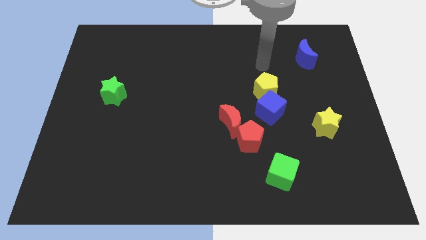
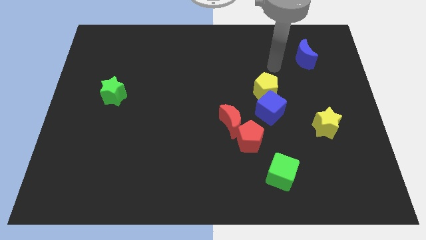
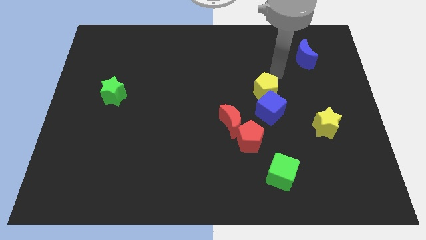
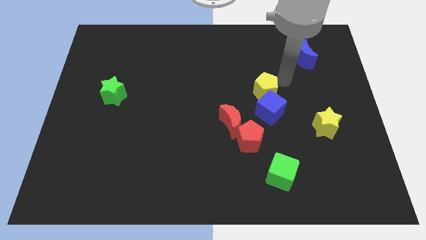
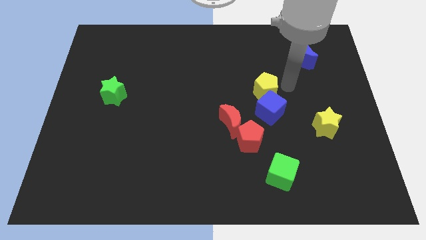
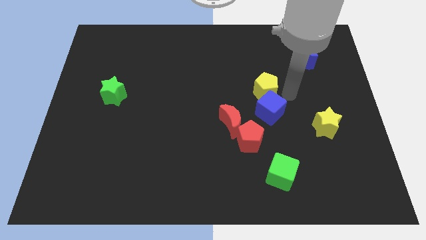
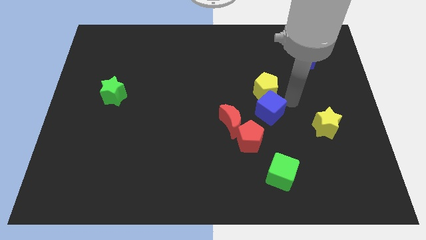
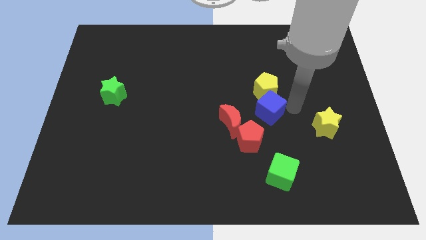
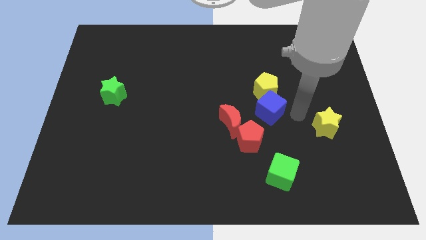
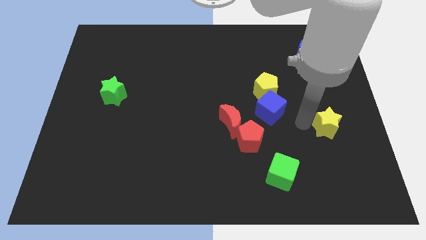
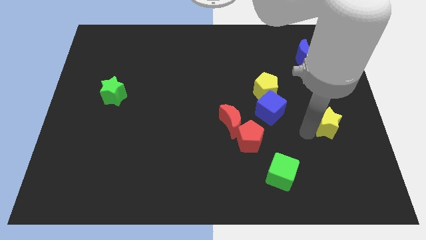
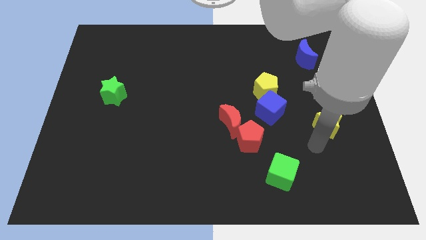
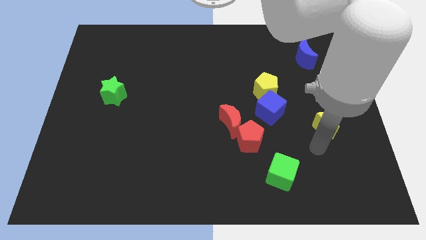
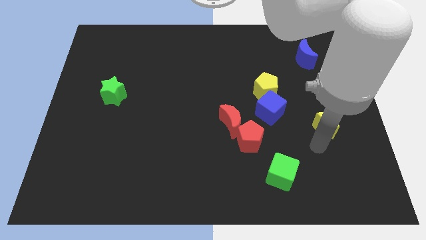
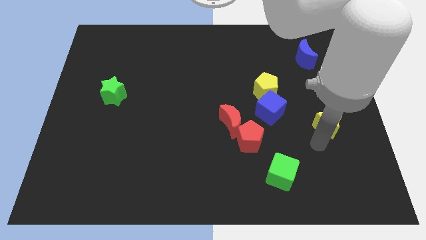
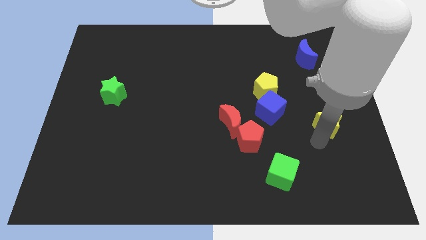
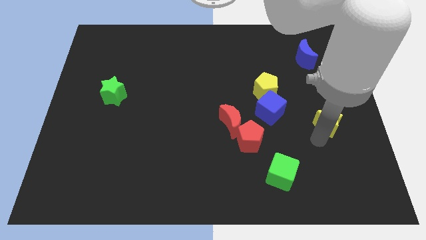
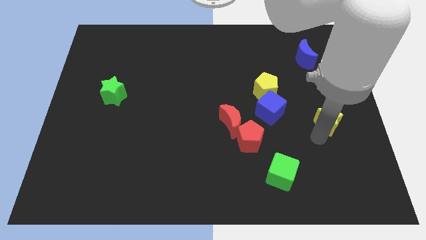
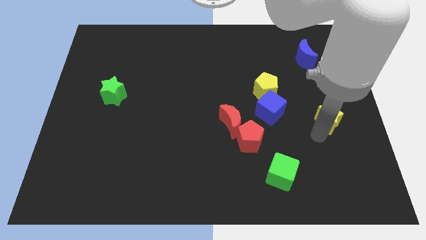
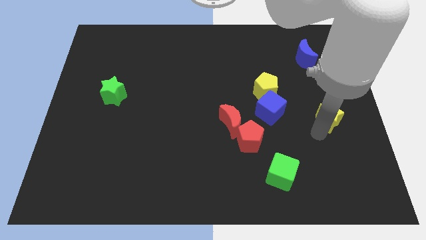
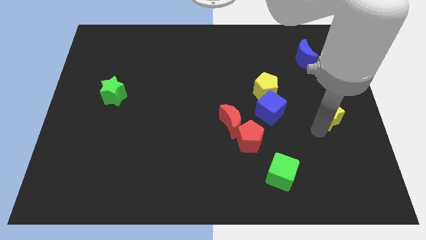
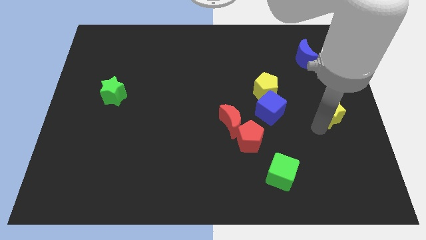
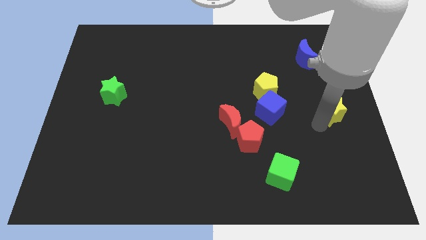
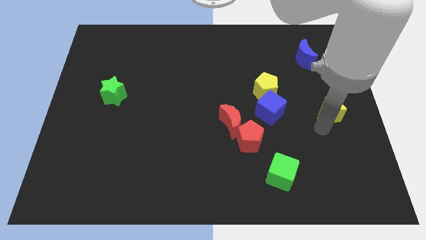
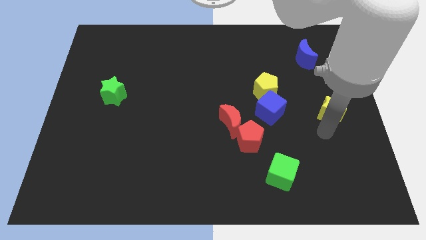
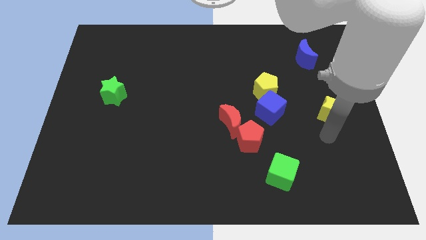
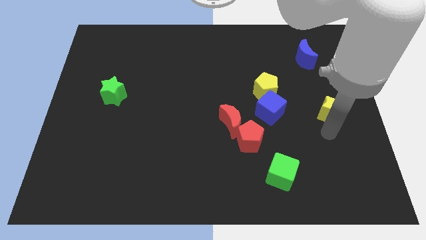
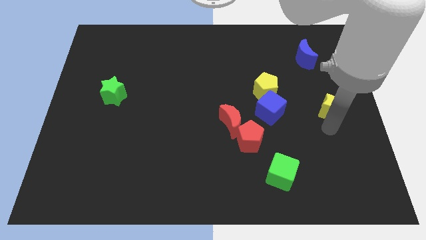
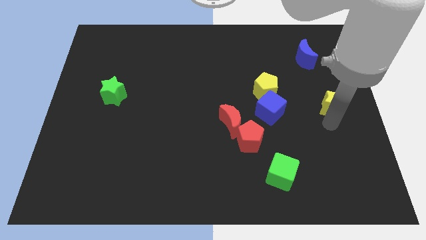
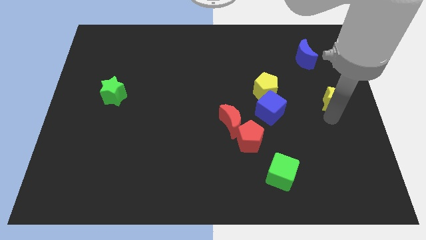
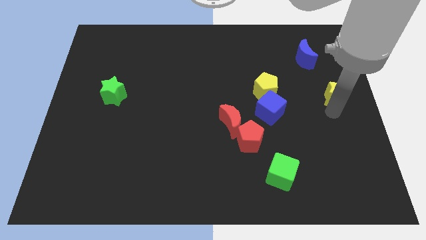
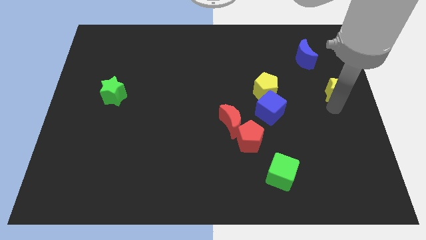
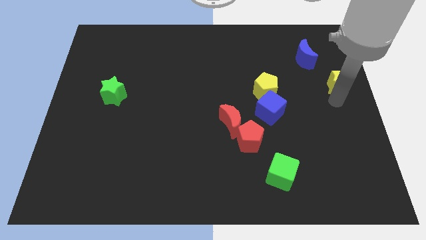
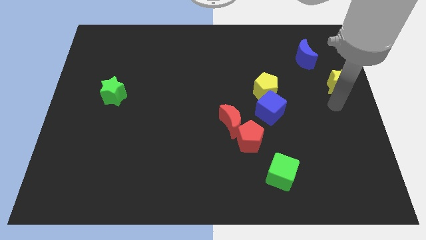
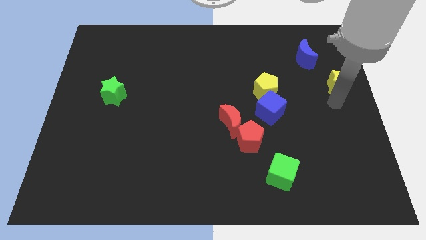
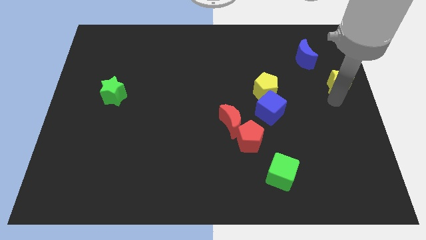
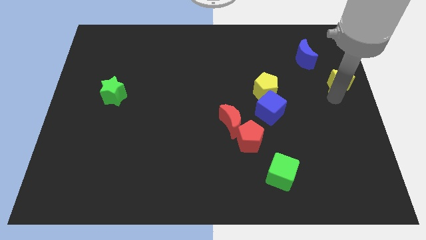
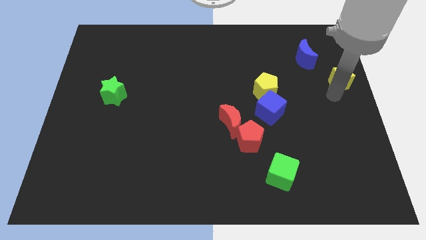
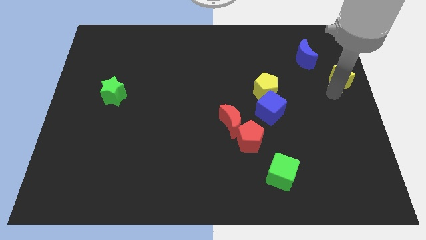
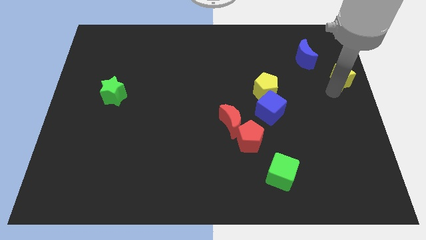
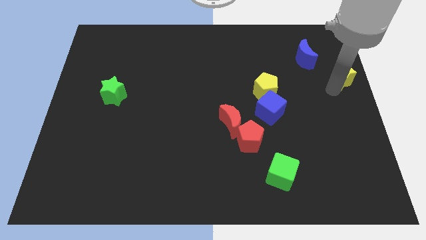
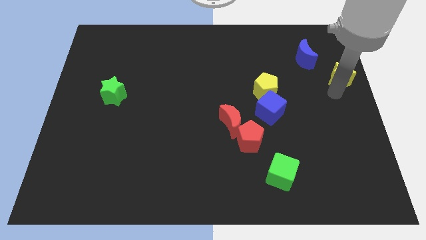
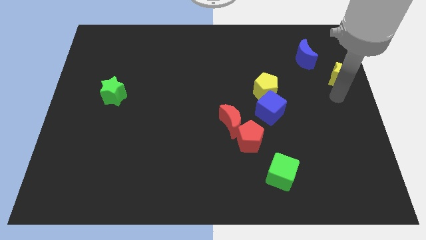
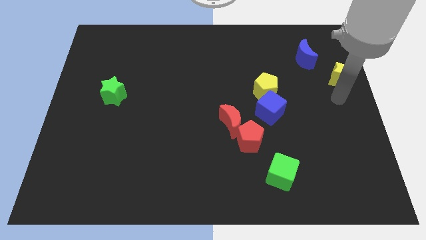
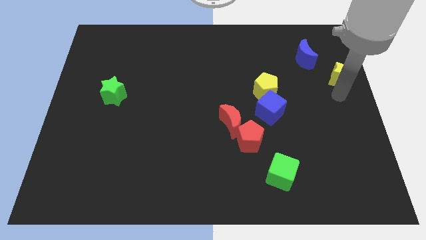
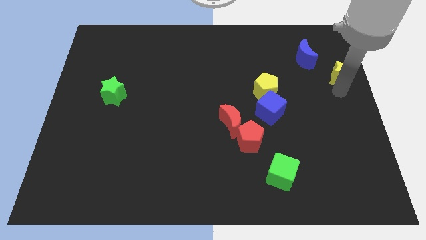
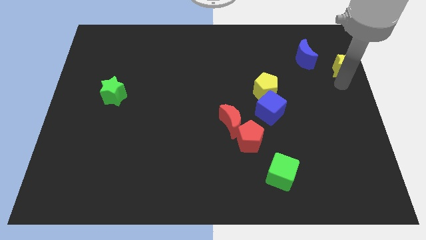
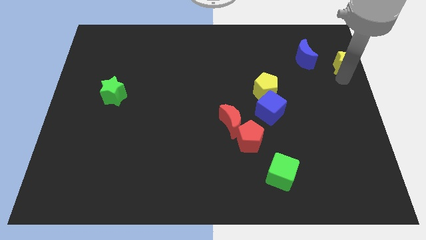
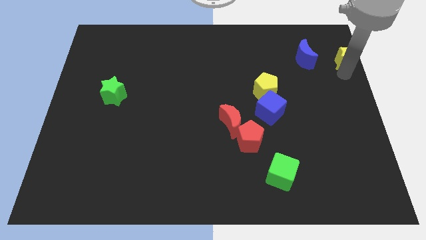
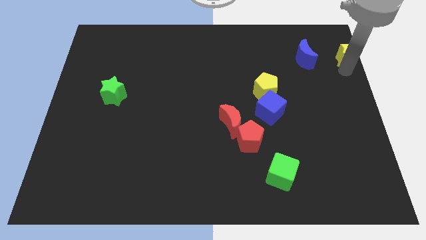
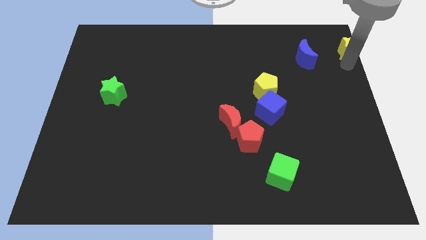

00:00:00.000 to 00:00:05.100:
move the yellow star to the top right corner

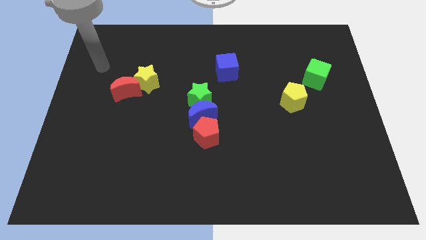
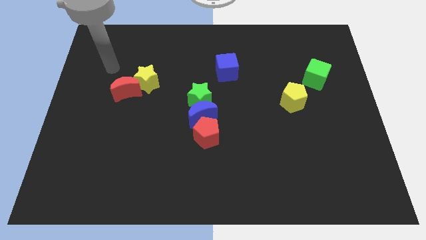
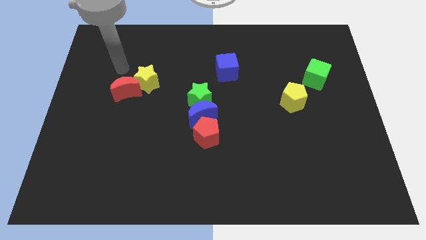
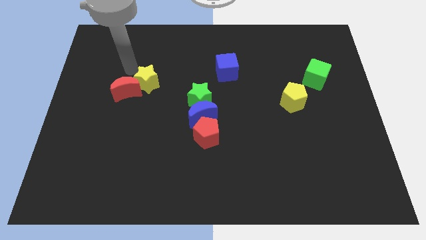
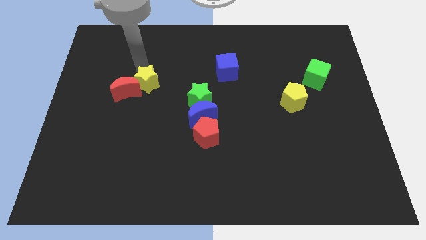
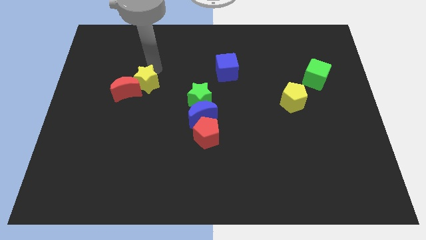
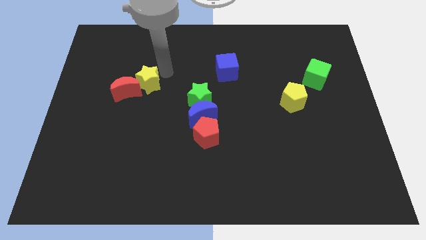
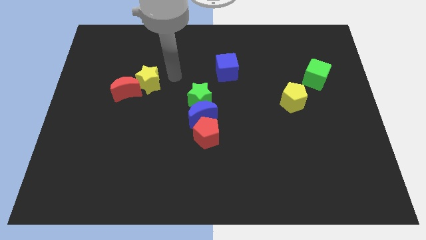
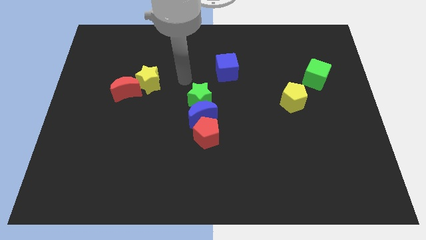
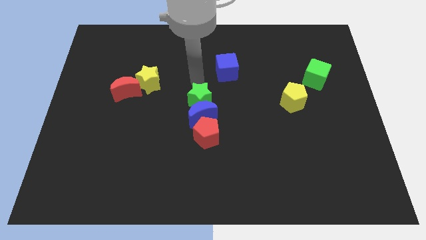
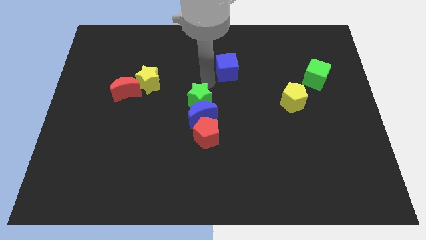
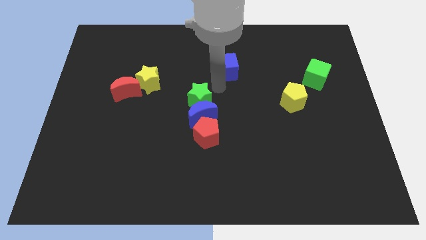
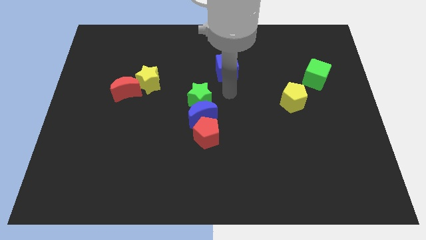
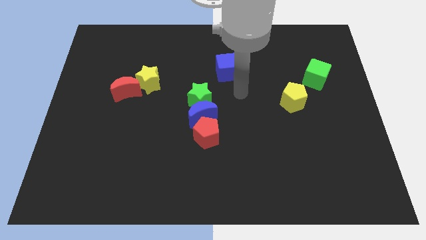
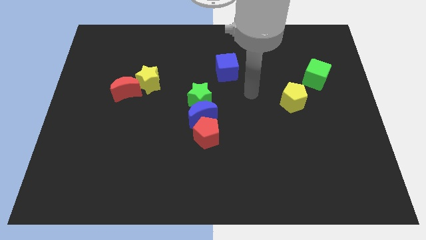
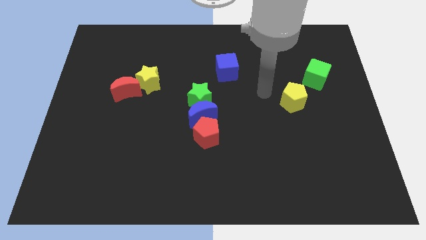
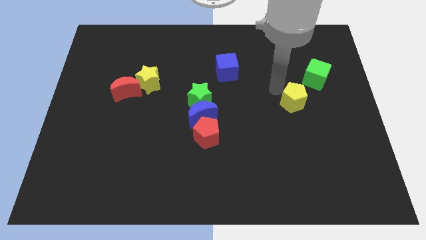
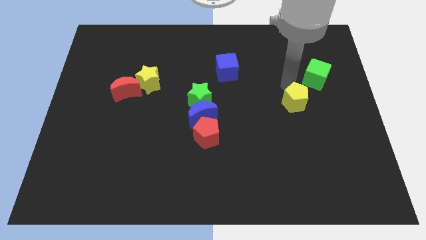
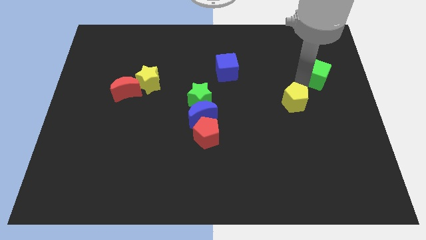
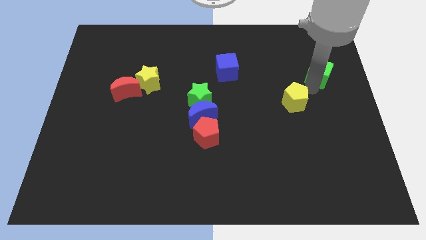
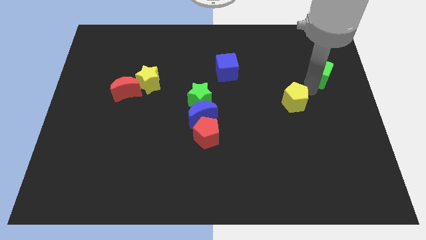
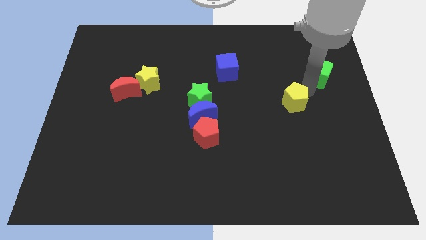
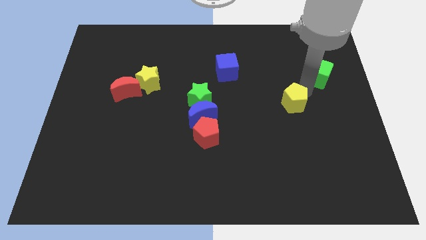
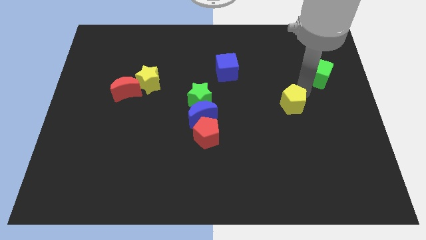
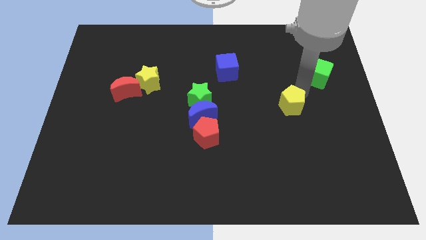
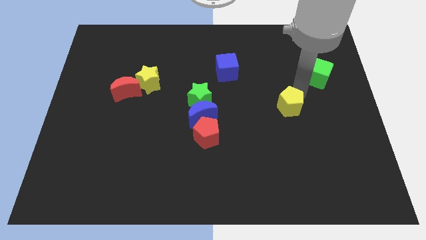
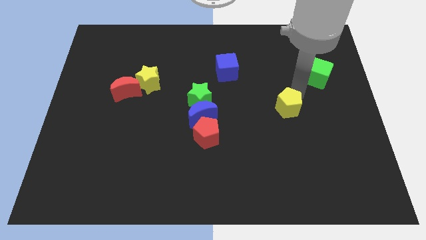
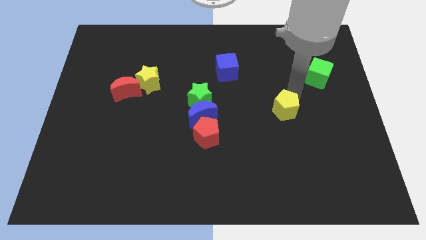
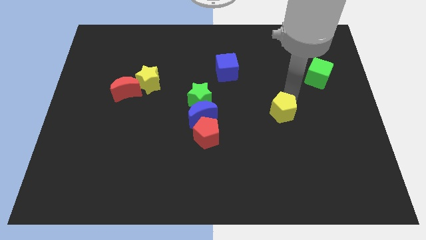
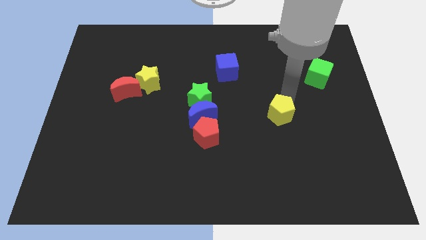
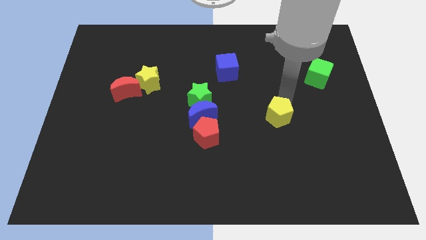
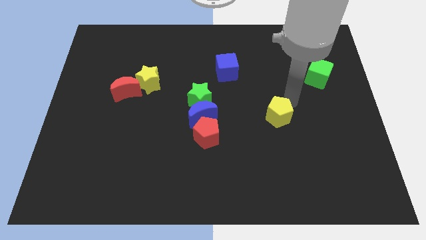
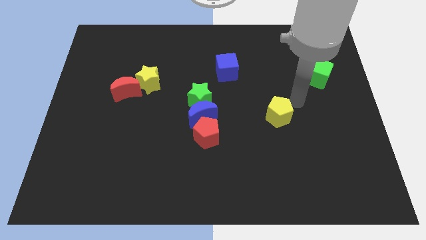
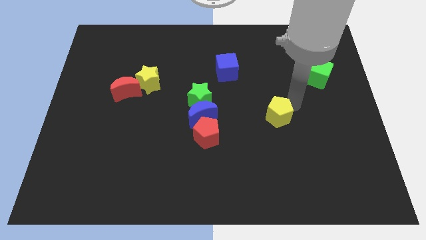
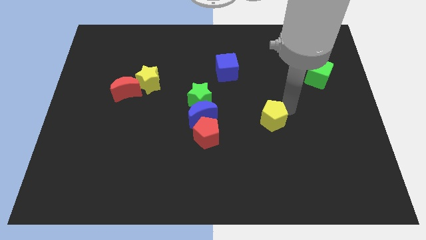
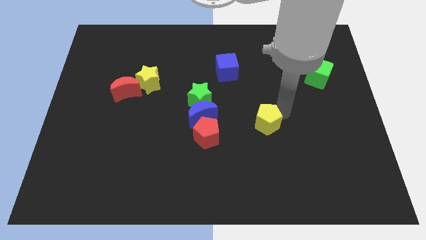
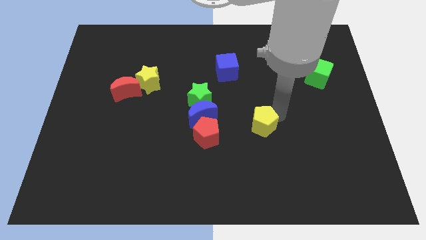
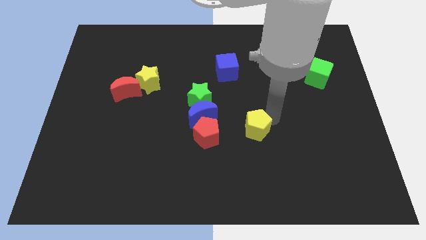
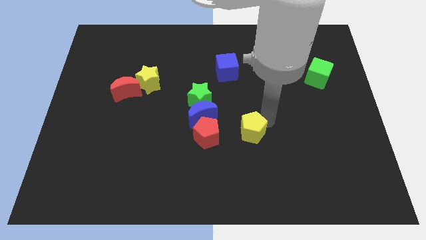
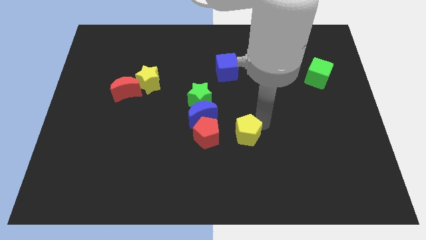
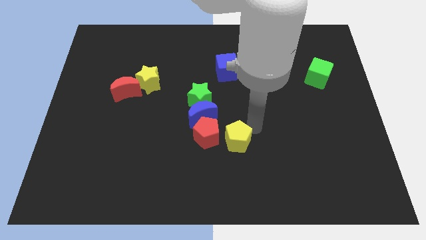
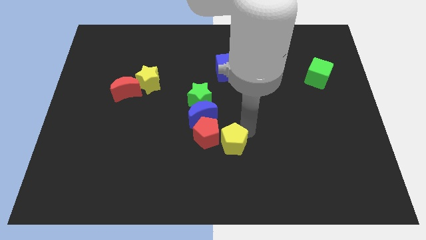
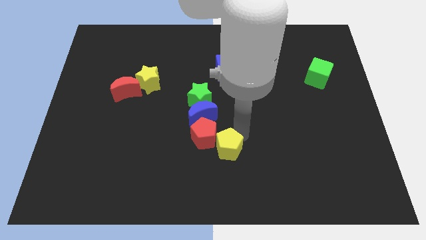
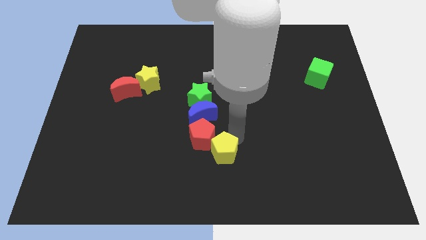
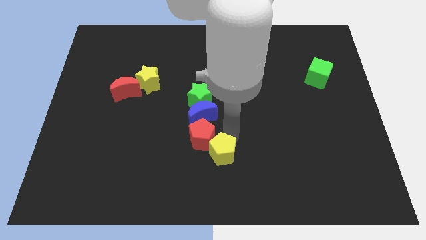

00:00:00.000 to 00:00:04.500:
slide the yellow pentagon to the bottom side
